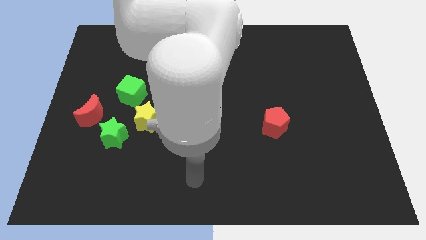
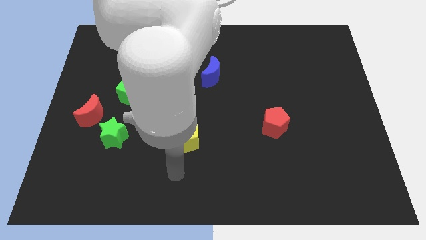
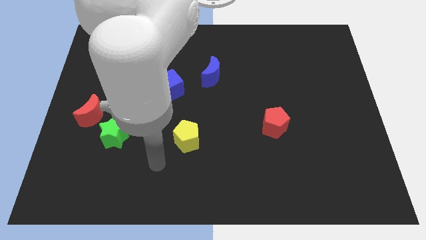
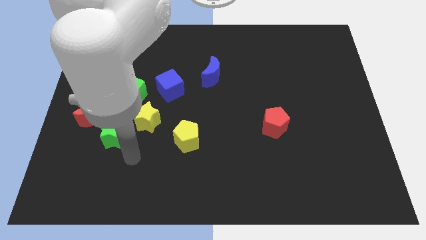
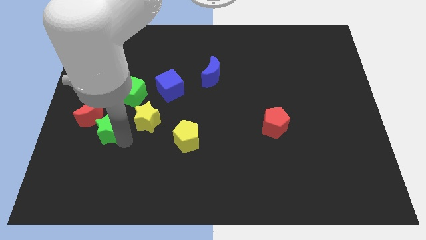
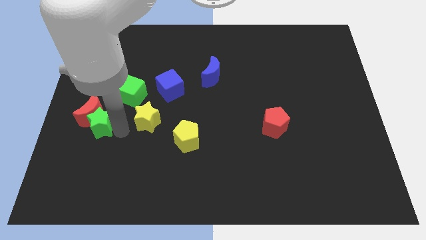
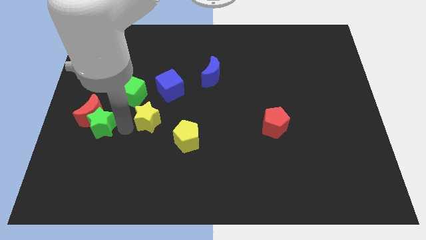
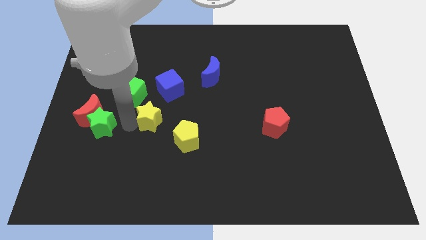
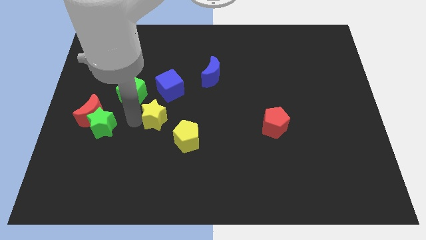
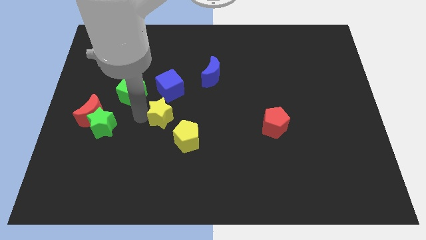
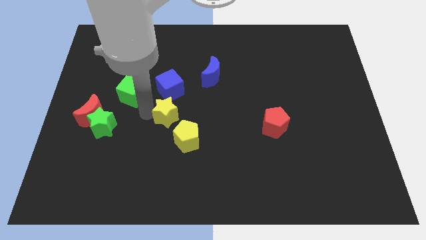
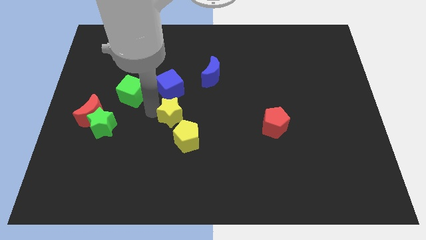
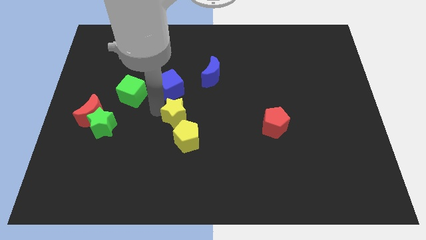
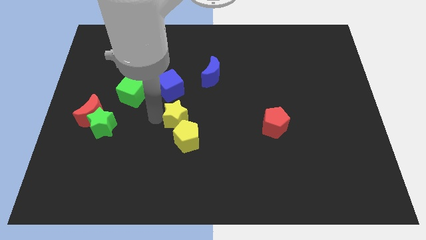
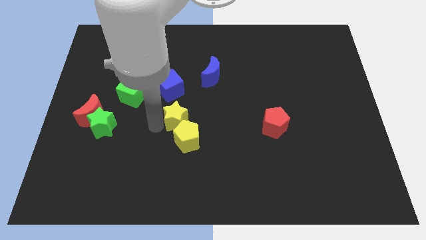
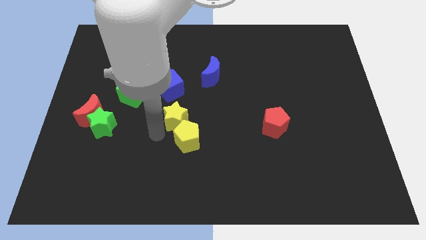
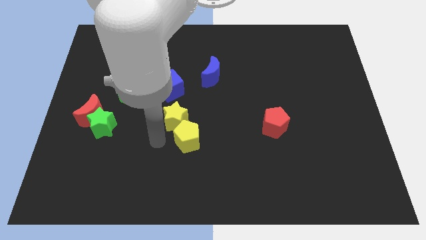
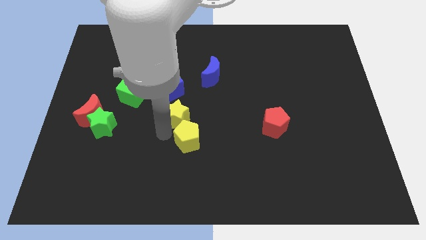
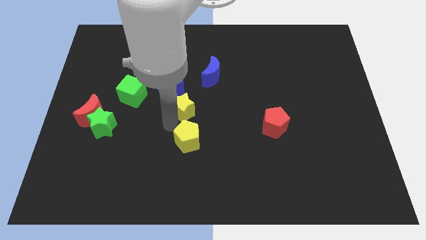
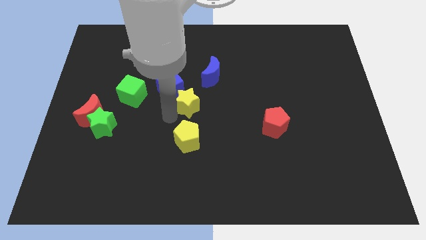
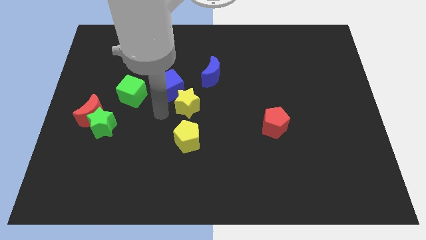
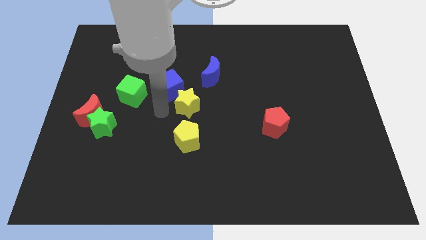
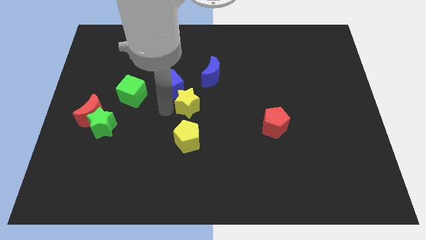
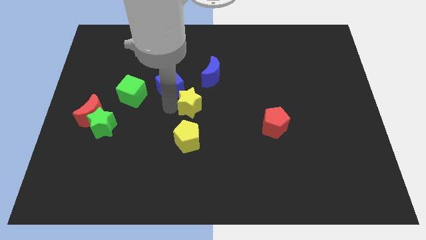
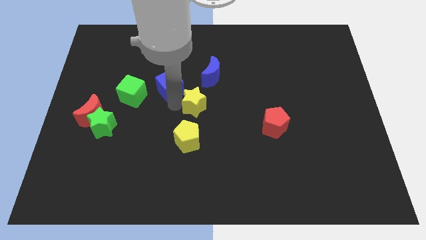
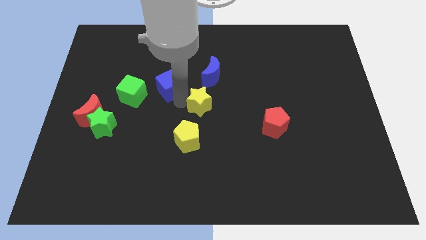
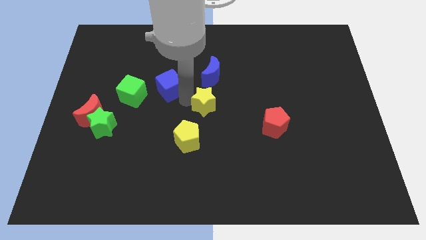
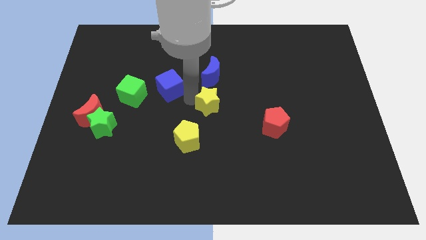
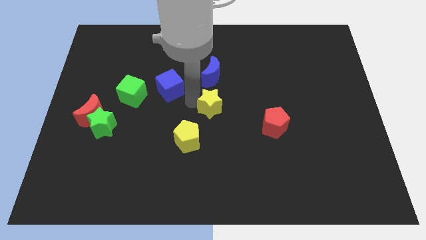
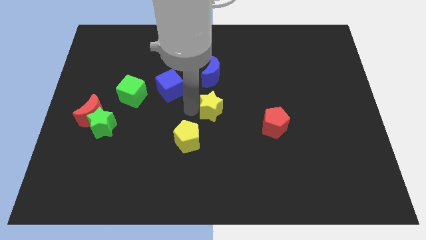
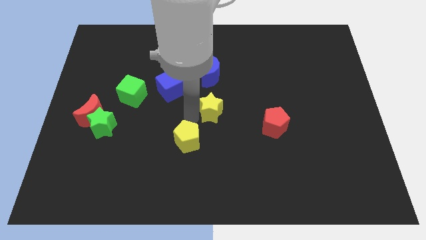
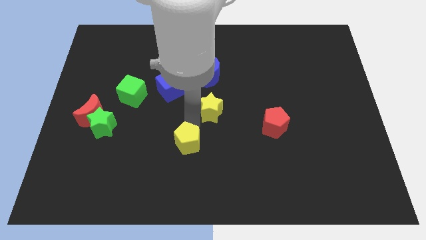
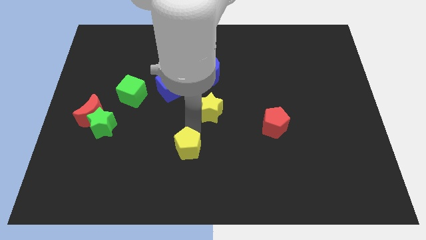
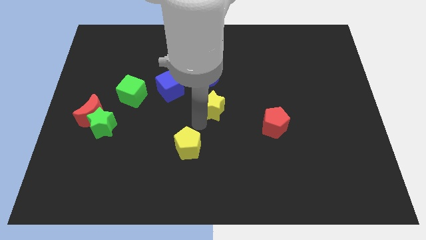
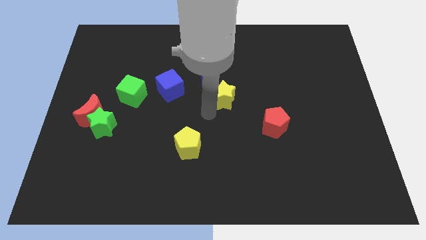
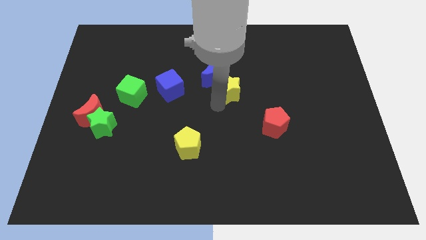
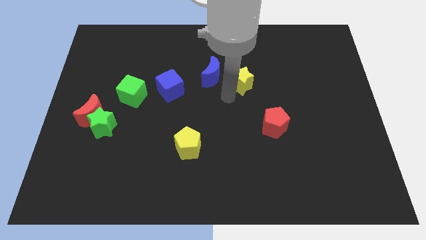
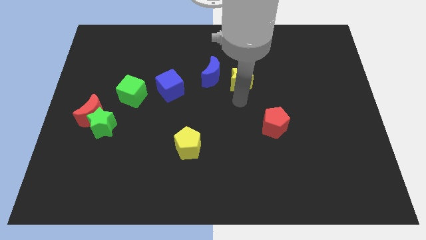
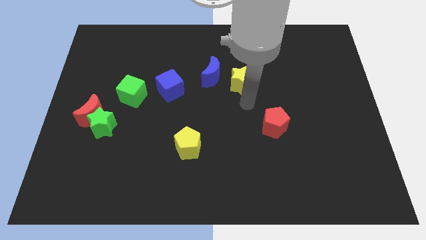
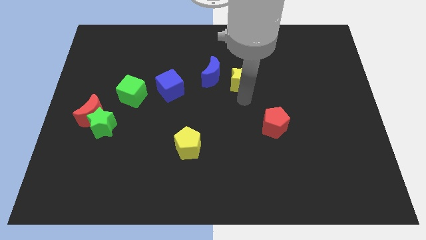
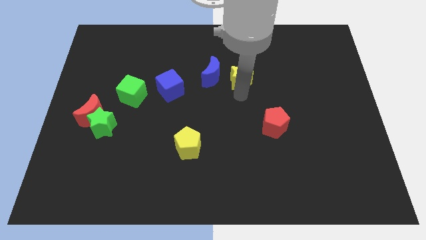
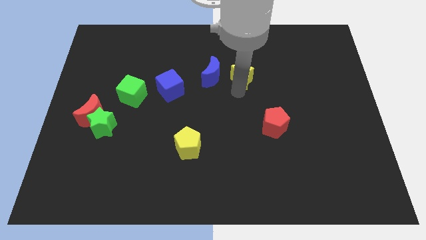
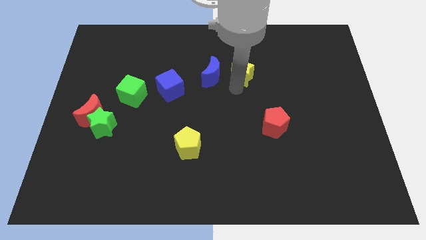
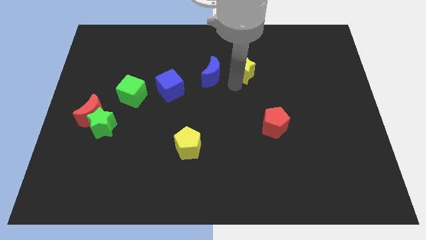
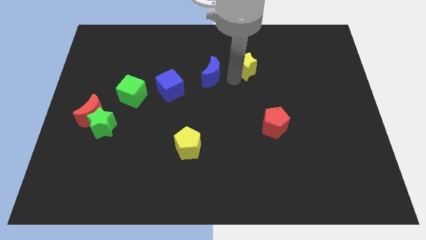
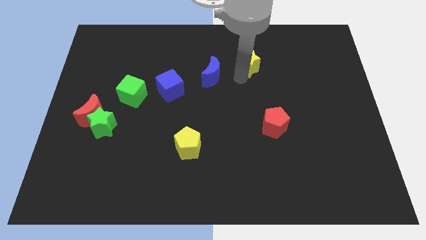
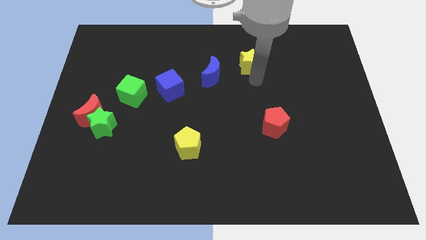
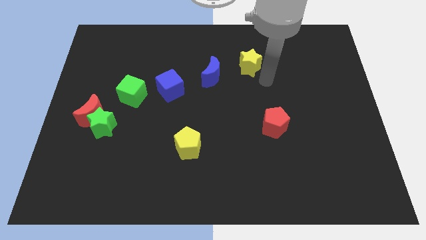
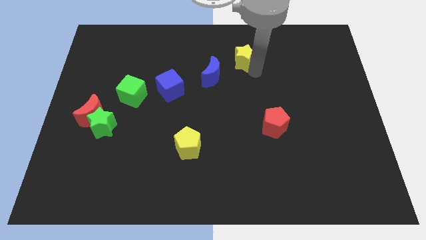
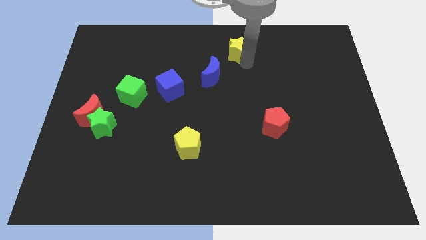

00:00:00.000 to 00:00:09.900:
slide the yellow star to the top side

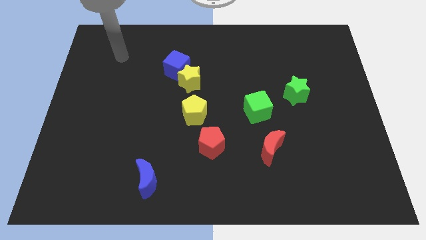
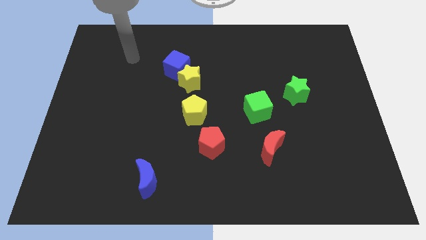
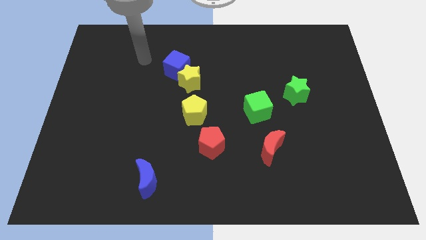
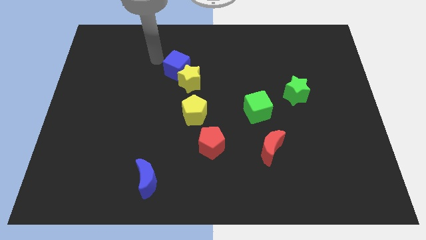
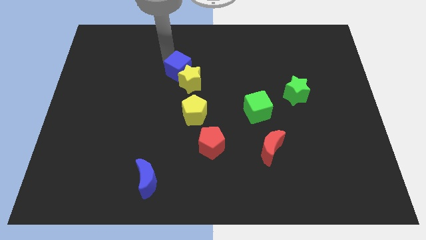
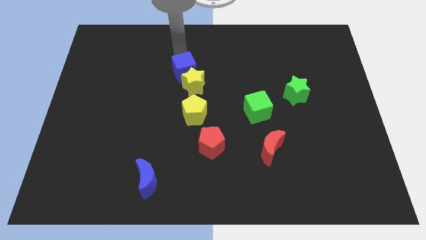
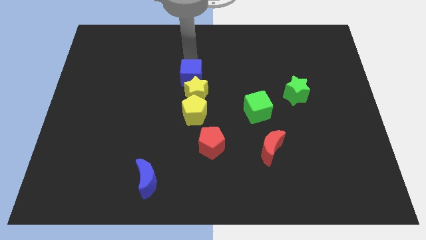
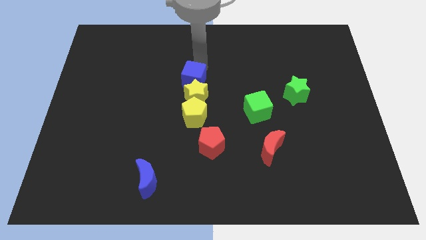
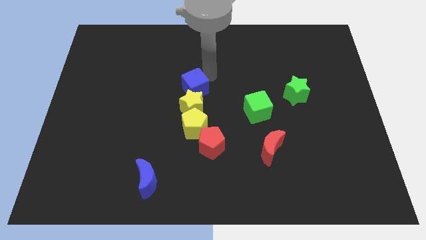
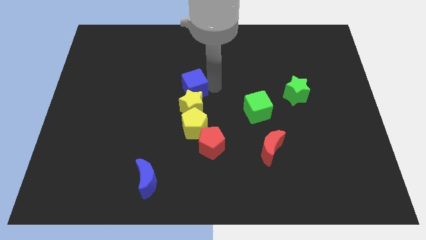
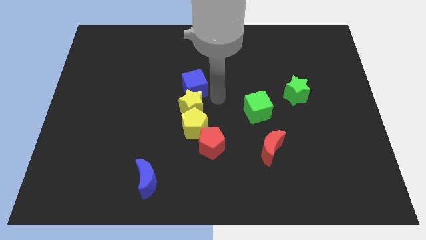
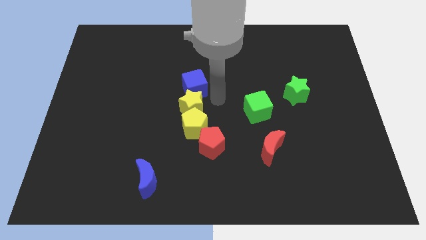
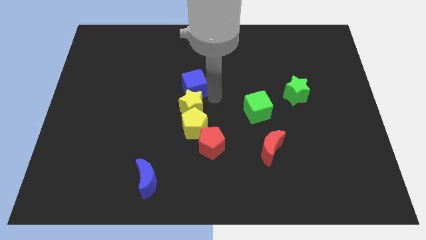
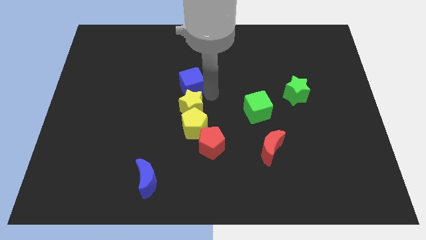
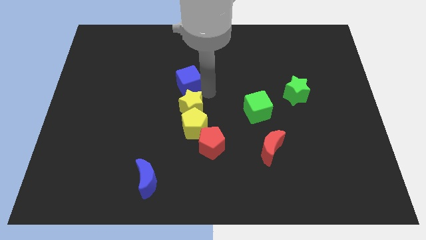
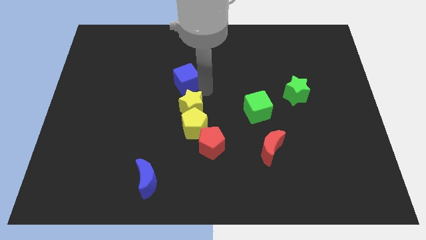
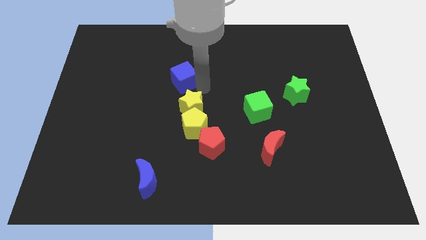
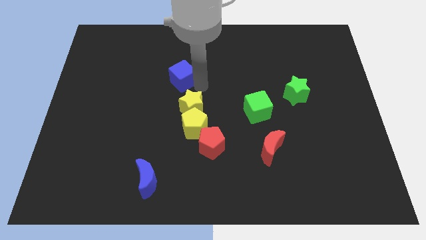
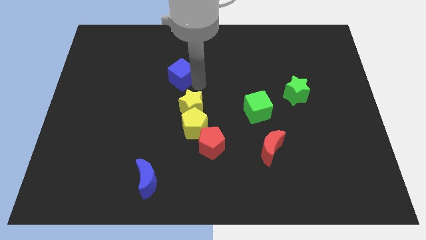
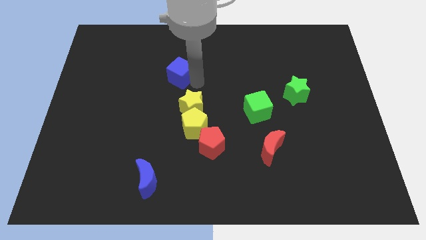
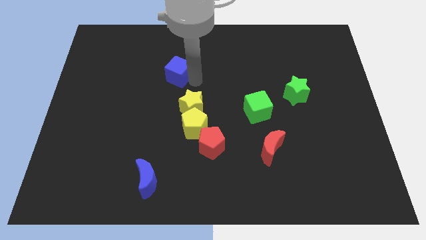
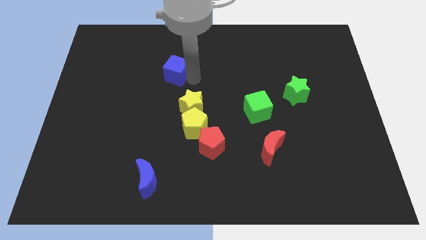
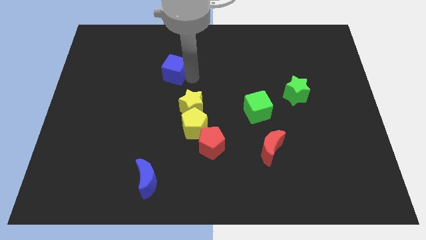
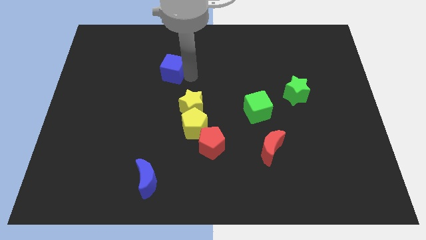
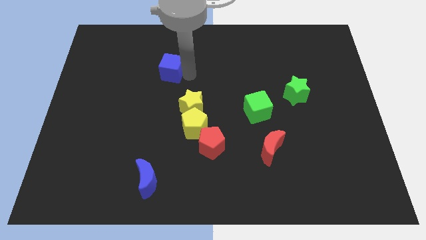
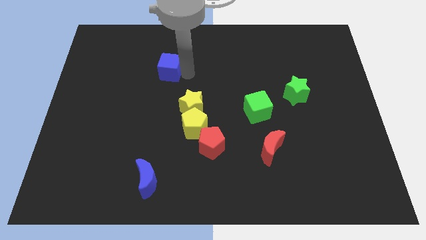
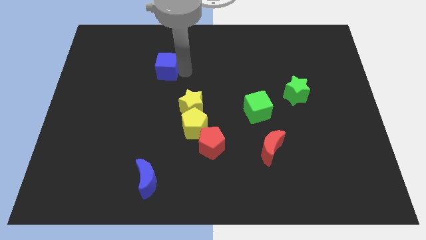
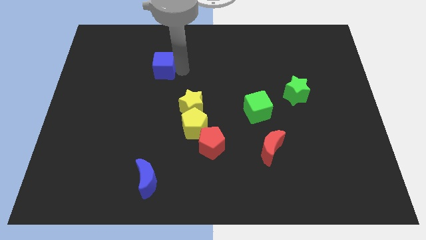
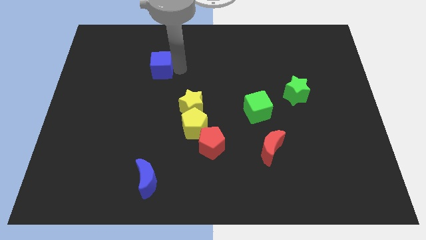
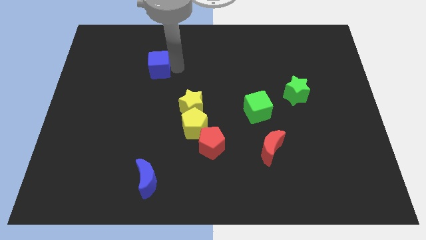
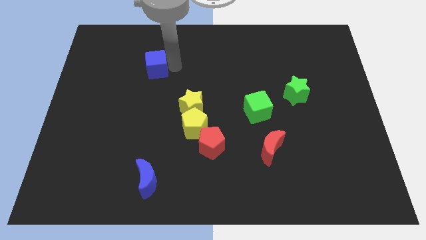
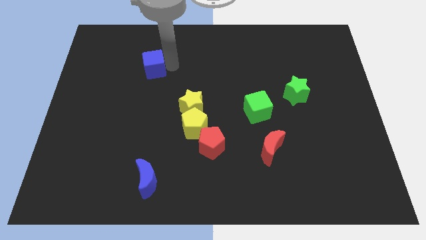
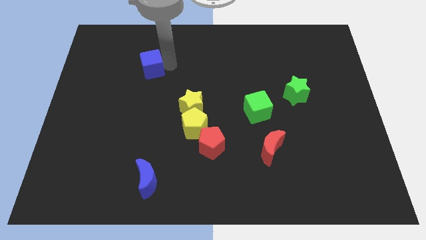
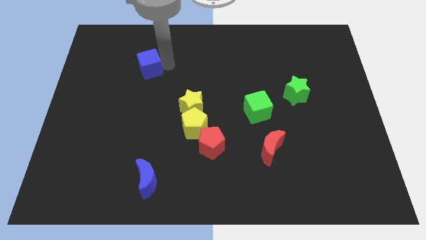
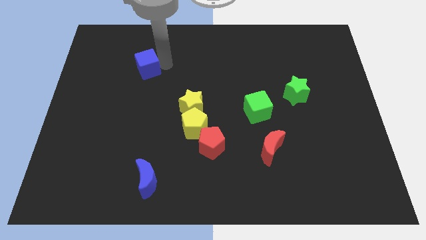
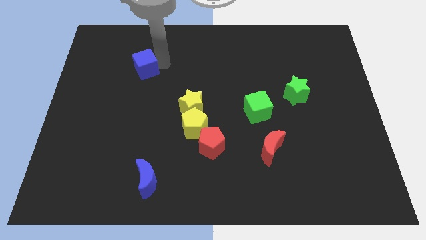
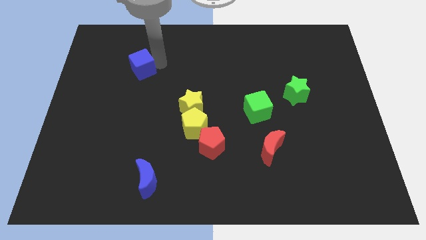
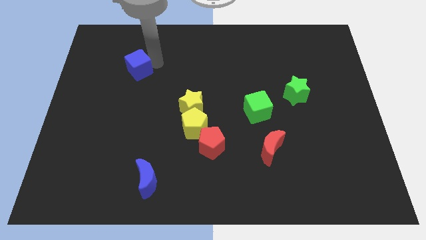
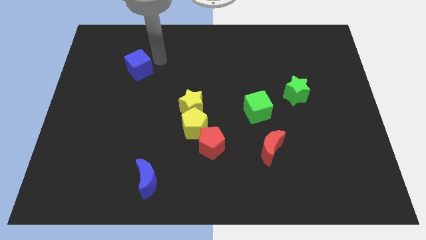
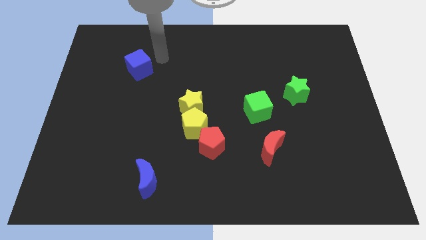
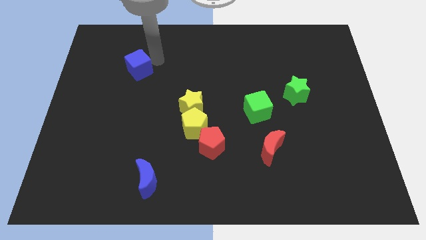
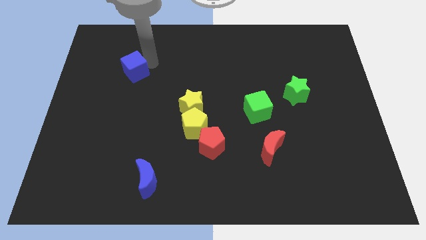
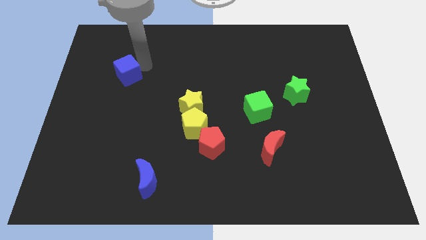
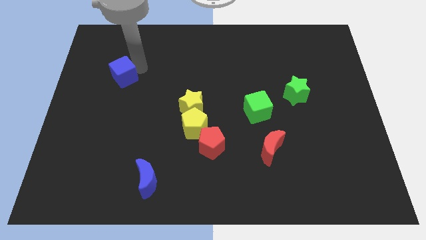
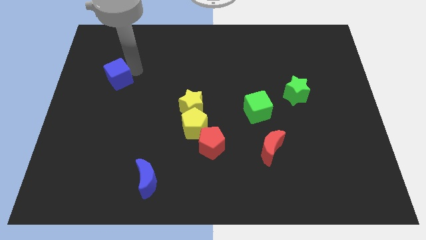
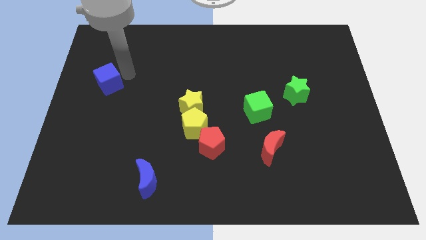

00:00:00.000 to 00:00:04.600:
slide the blue cube to the center left
